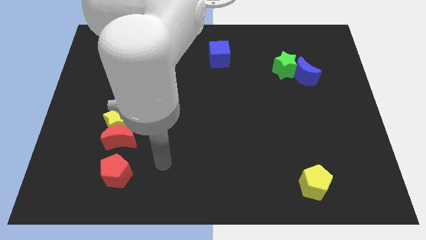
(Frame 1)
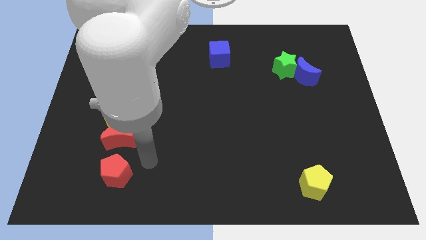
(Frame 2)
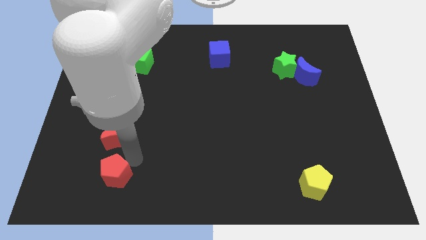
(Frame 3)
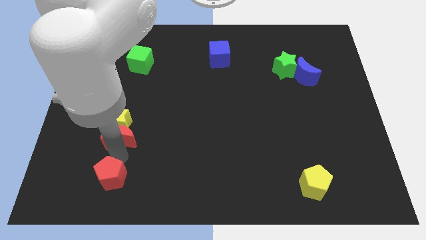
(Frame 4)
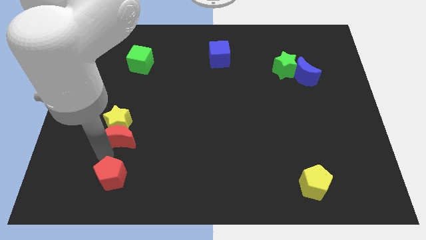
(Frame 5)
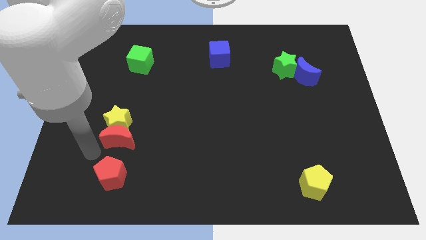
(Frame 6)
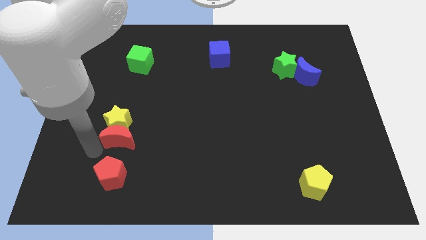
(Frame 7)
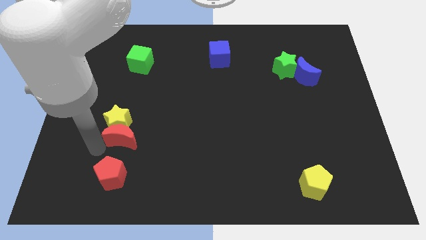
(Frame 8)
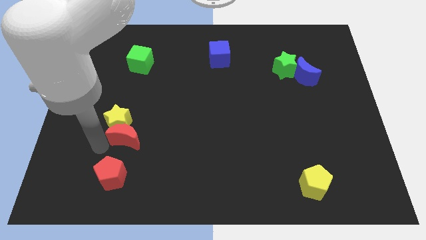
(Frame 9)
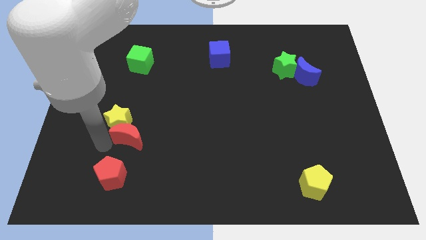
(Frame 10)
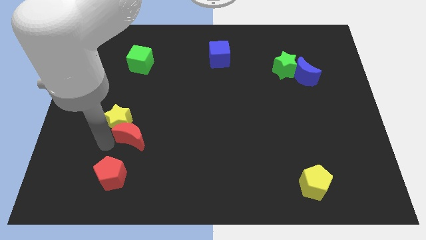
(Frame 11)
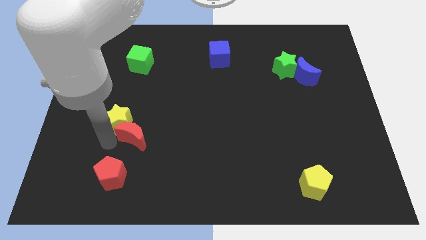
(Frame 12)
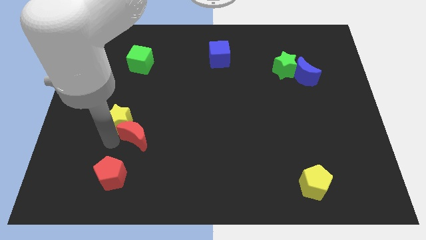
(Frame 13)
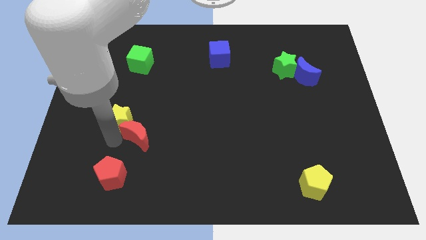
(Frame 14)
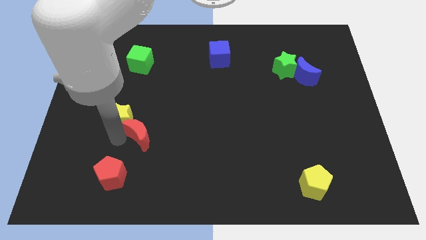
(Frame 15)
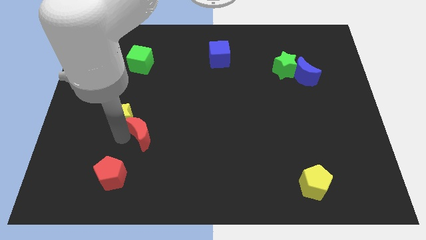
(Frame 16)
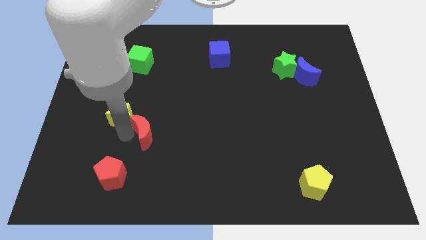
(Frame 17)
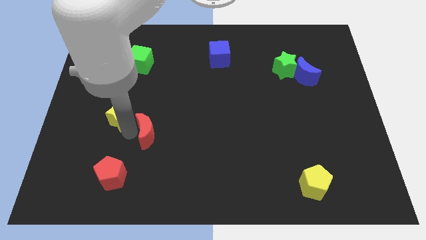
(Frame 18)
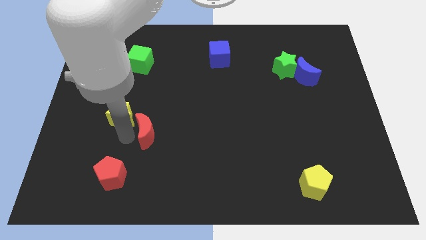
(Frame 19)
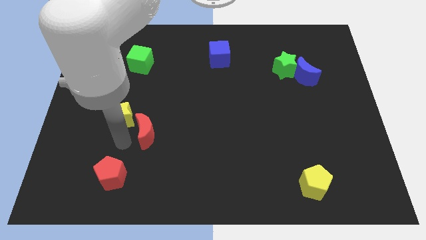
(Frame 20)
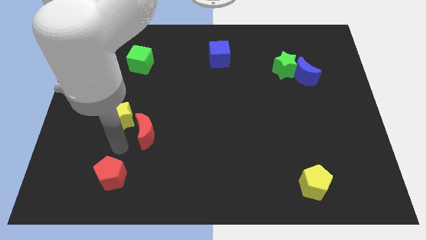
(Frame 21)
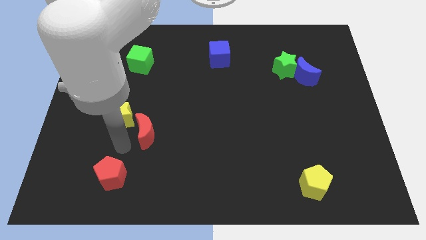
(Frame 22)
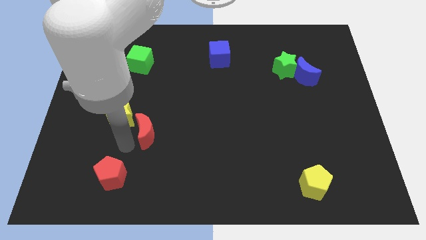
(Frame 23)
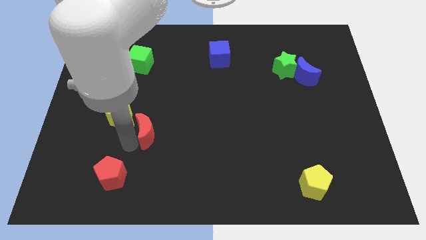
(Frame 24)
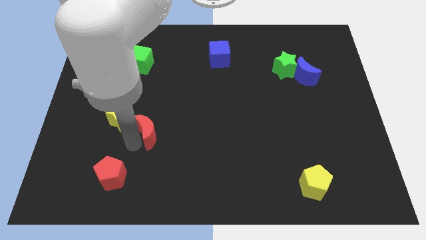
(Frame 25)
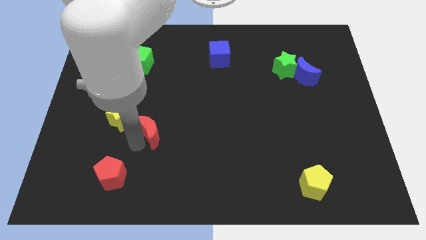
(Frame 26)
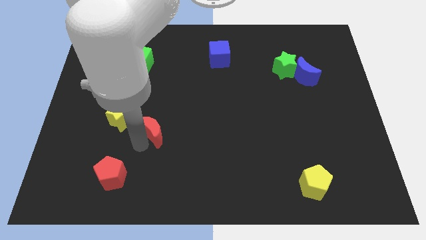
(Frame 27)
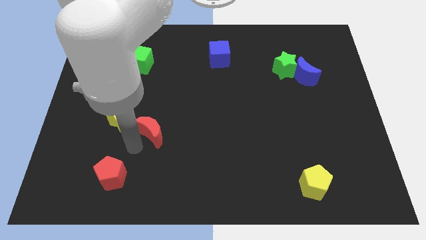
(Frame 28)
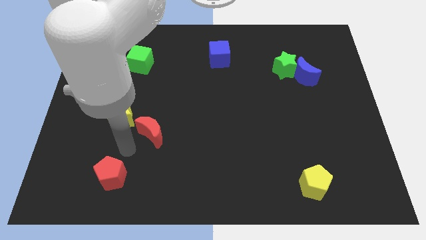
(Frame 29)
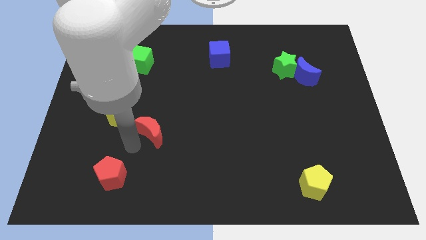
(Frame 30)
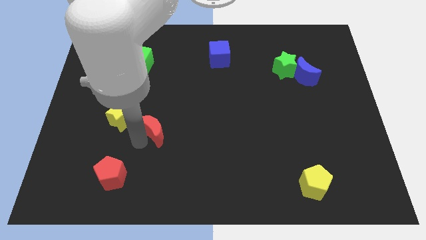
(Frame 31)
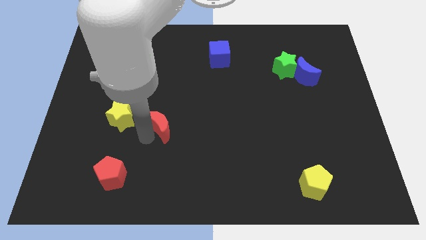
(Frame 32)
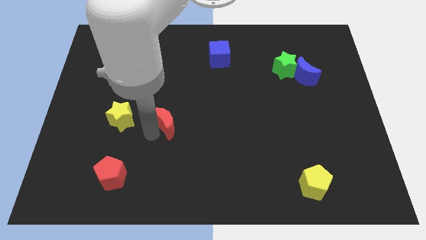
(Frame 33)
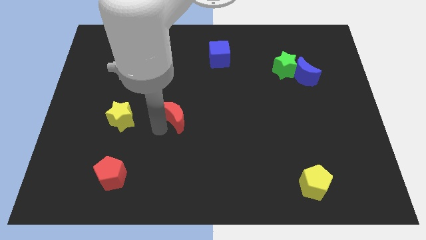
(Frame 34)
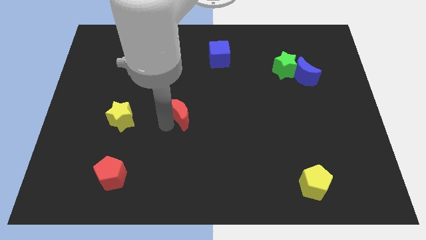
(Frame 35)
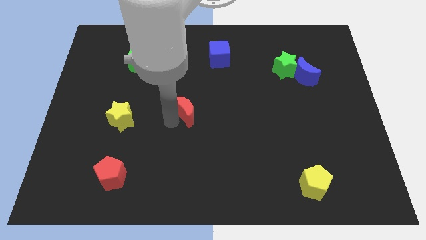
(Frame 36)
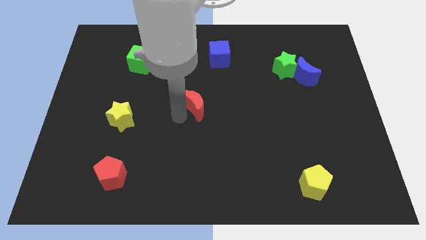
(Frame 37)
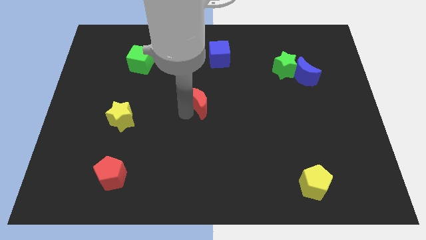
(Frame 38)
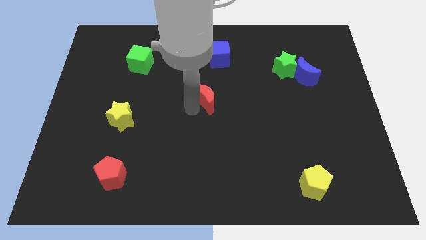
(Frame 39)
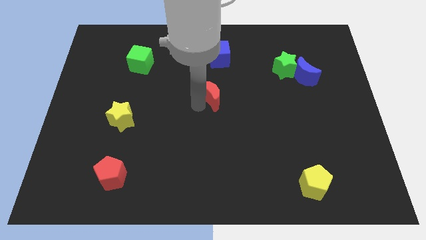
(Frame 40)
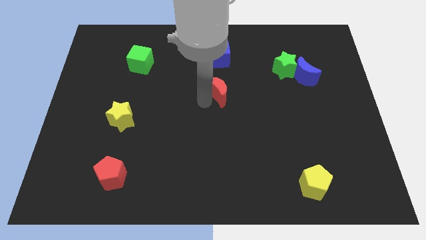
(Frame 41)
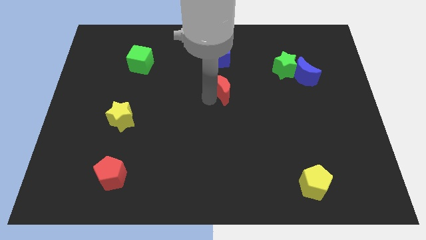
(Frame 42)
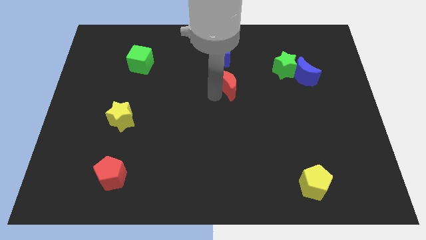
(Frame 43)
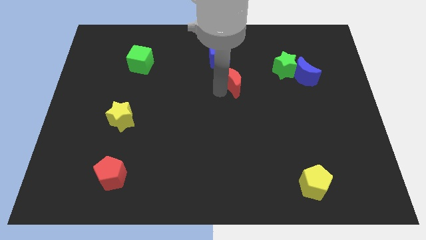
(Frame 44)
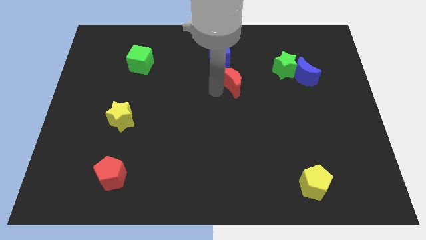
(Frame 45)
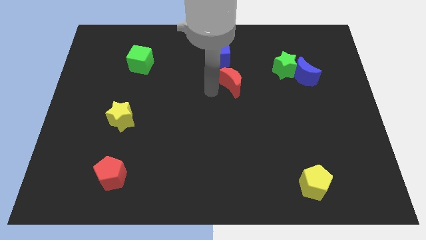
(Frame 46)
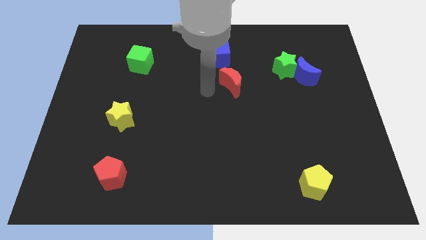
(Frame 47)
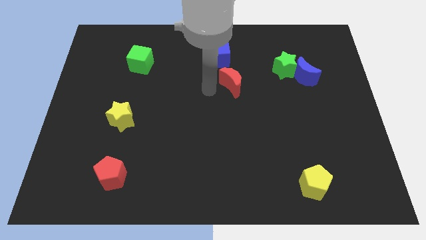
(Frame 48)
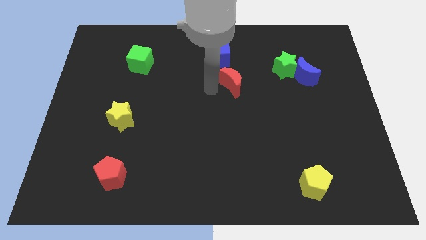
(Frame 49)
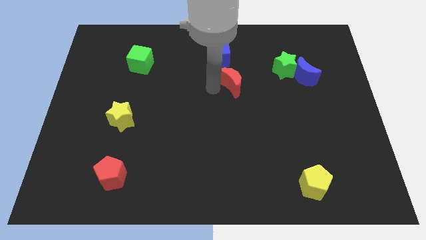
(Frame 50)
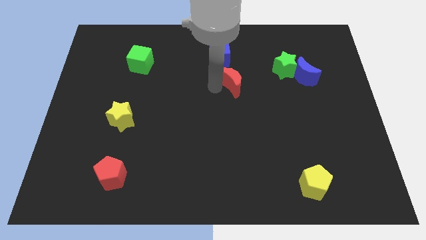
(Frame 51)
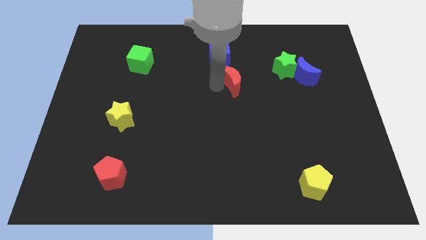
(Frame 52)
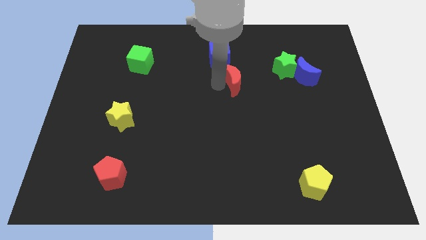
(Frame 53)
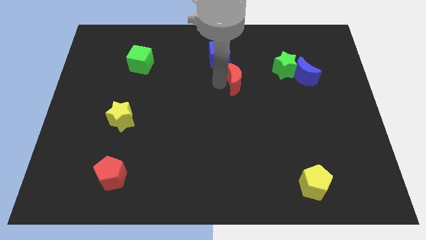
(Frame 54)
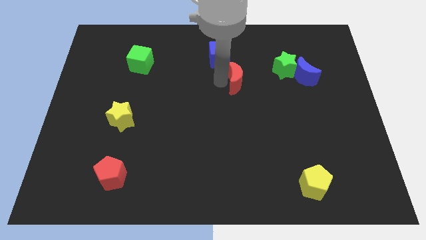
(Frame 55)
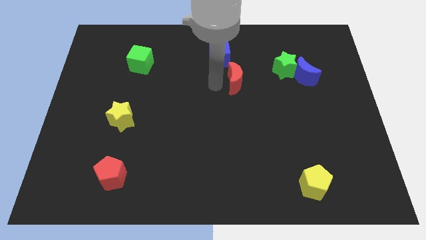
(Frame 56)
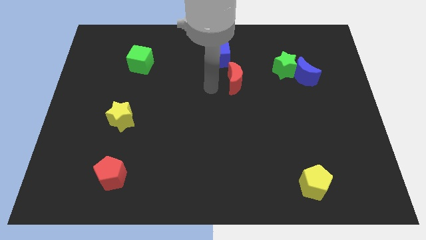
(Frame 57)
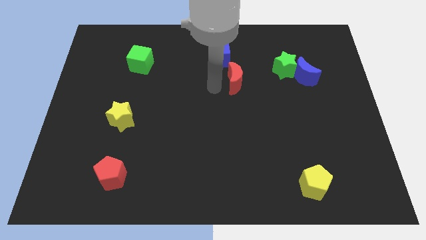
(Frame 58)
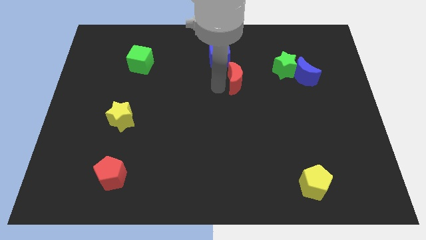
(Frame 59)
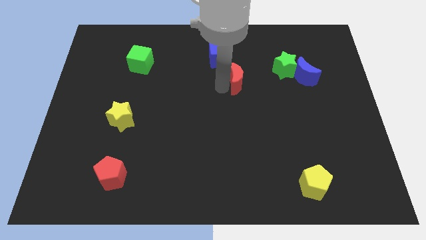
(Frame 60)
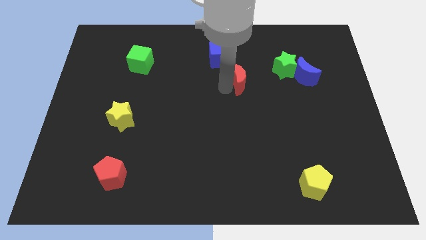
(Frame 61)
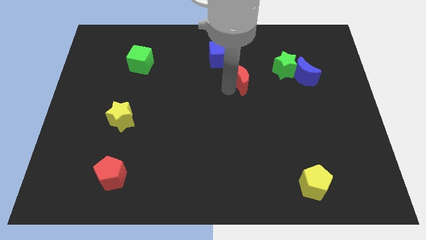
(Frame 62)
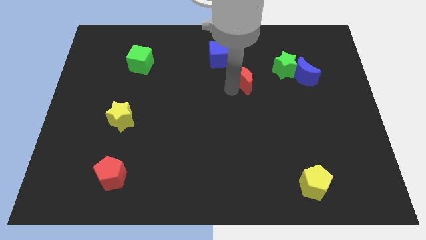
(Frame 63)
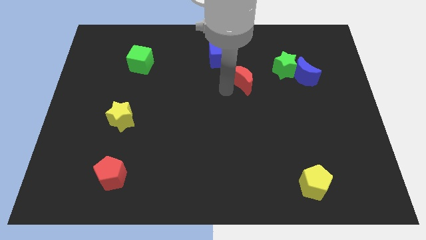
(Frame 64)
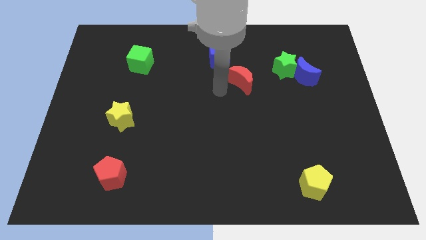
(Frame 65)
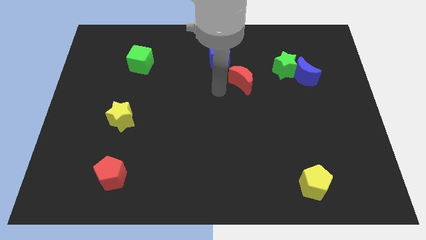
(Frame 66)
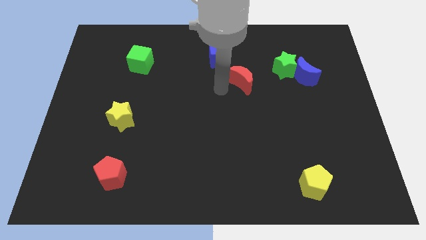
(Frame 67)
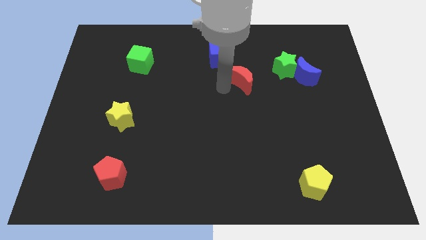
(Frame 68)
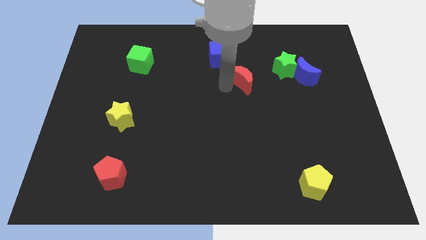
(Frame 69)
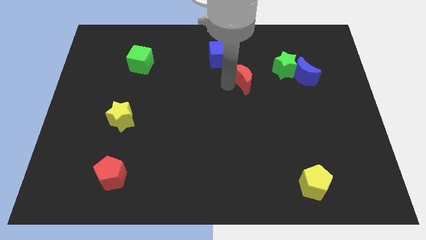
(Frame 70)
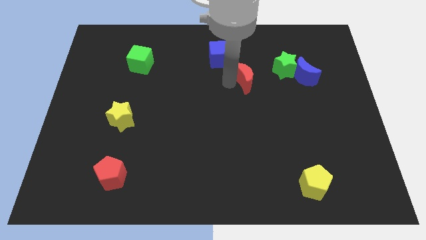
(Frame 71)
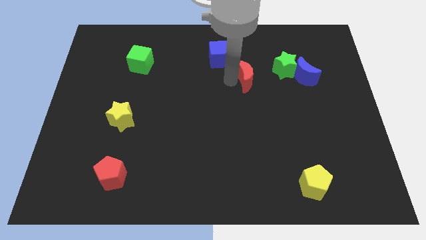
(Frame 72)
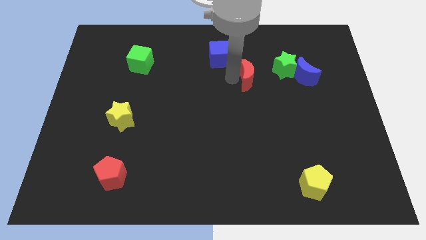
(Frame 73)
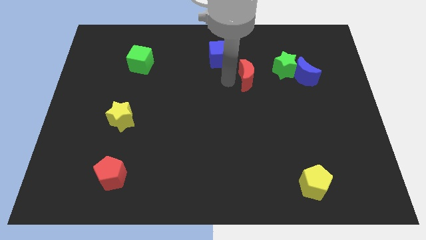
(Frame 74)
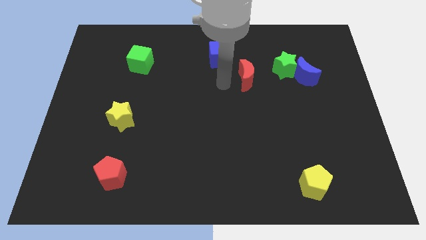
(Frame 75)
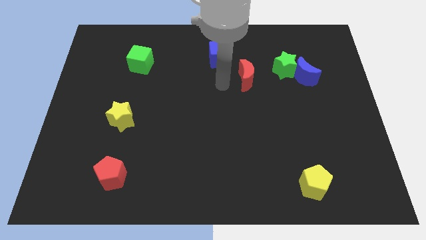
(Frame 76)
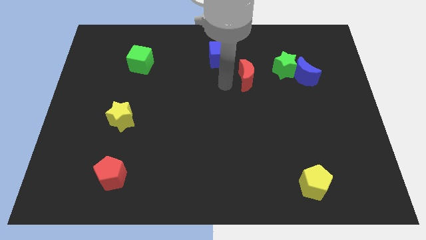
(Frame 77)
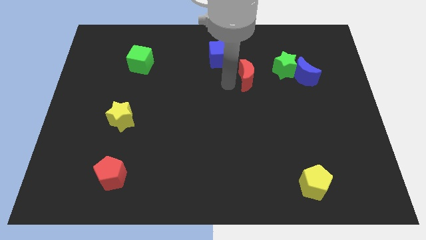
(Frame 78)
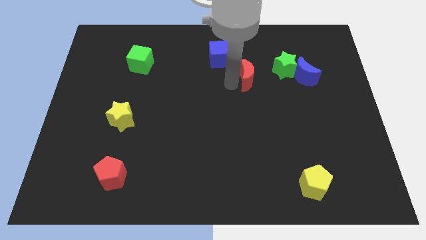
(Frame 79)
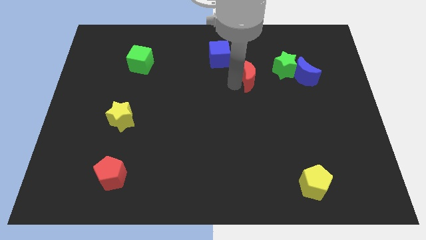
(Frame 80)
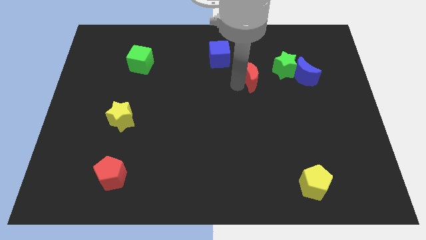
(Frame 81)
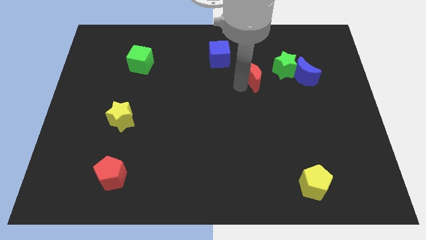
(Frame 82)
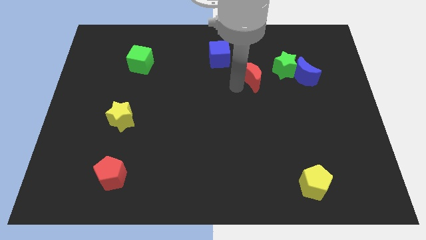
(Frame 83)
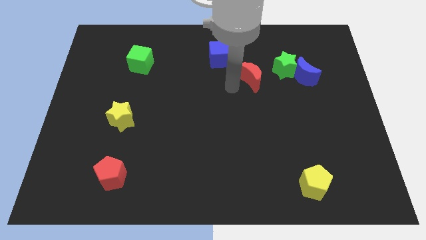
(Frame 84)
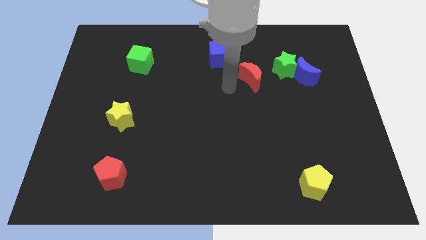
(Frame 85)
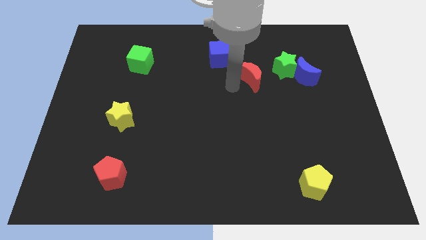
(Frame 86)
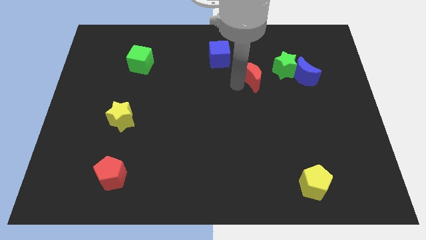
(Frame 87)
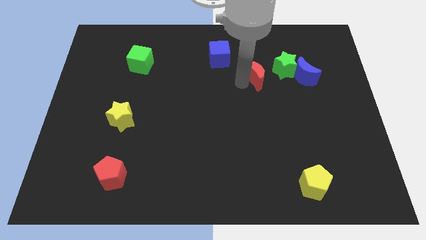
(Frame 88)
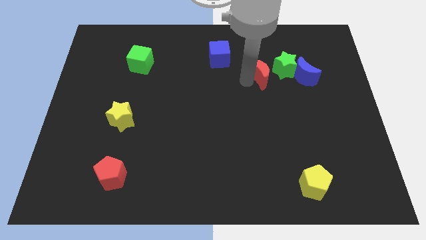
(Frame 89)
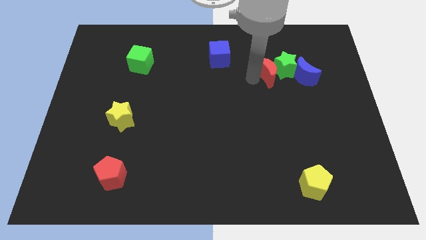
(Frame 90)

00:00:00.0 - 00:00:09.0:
slide the red moon to the green star
